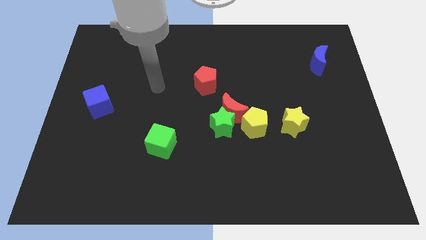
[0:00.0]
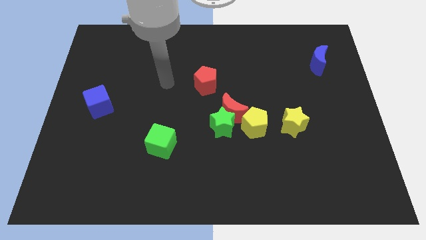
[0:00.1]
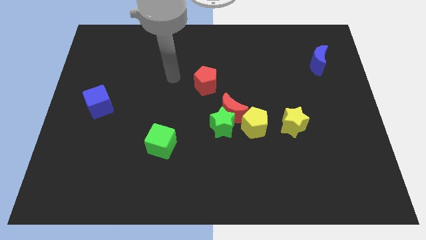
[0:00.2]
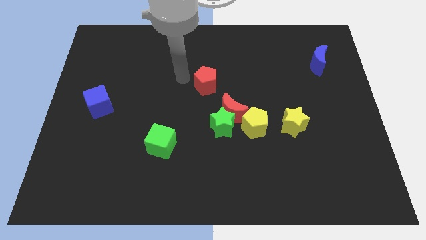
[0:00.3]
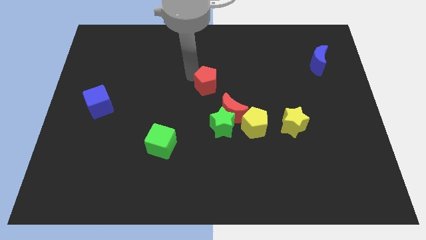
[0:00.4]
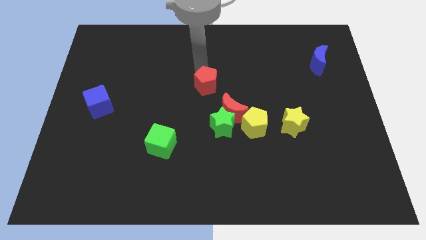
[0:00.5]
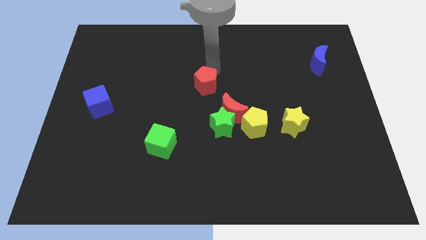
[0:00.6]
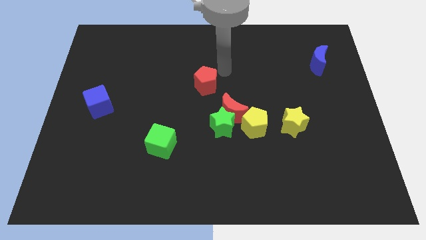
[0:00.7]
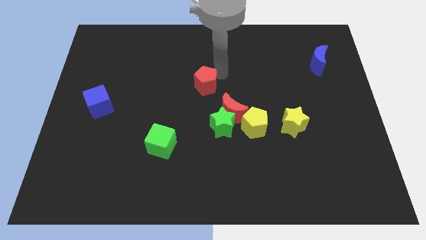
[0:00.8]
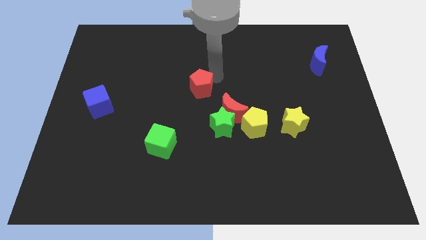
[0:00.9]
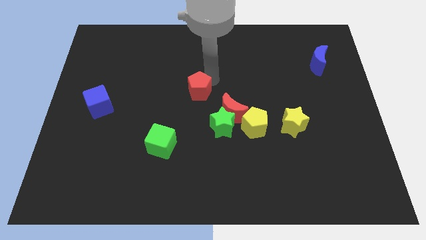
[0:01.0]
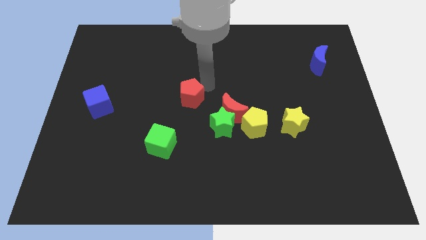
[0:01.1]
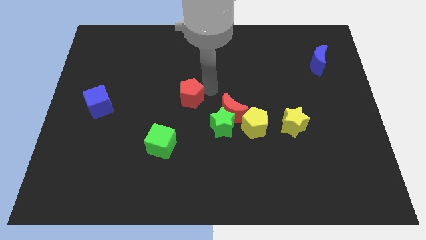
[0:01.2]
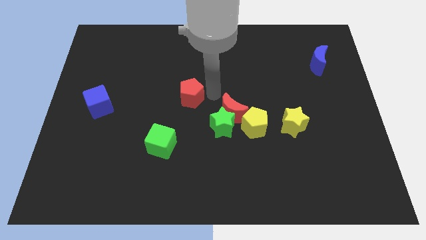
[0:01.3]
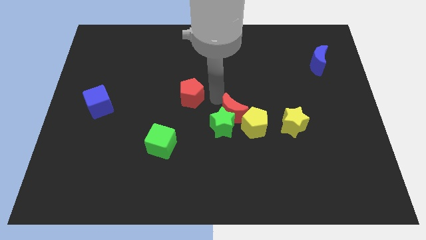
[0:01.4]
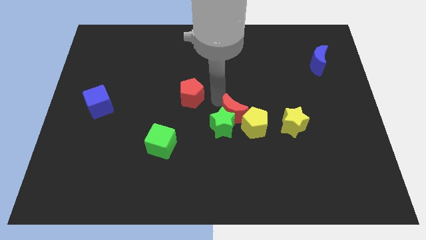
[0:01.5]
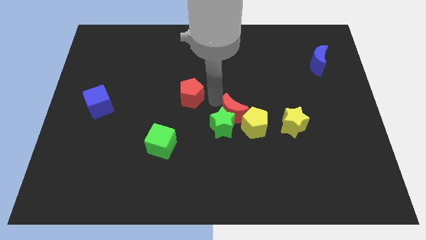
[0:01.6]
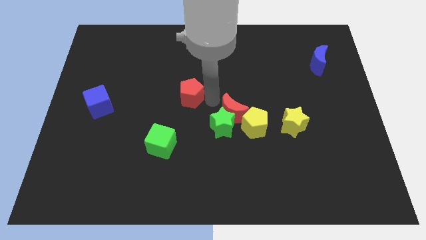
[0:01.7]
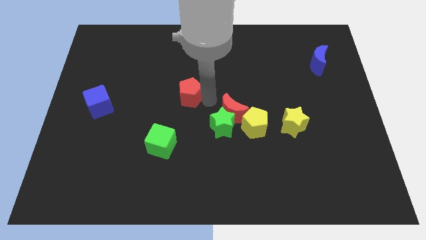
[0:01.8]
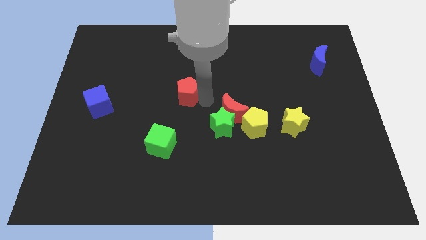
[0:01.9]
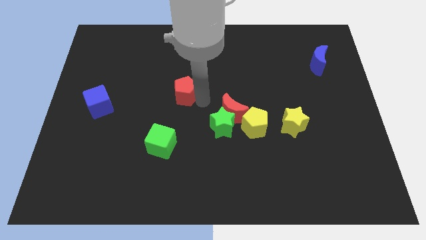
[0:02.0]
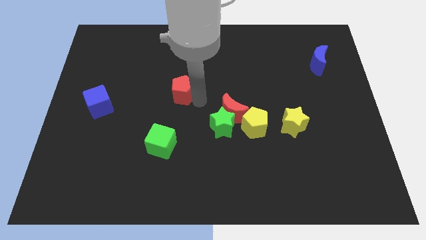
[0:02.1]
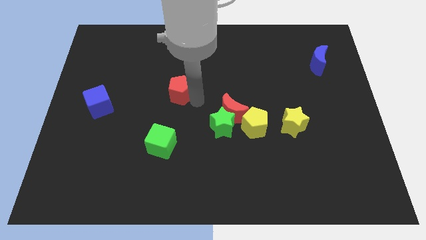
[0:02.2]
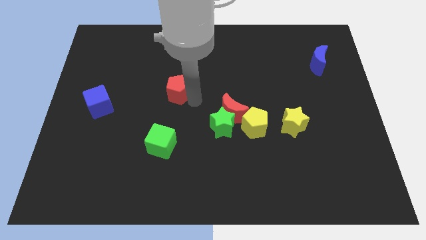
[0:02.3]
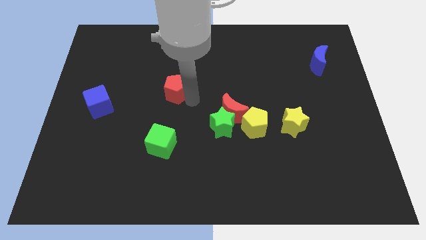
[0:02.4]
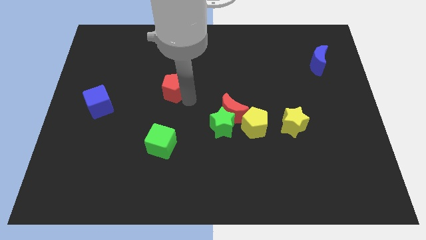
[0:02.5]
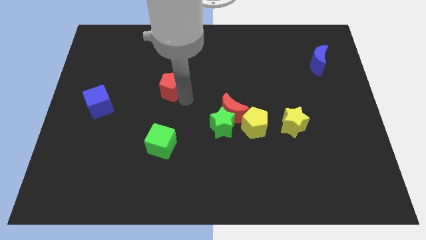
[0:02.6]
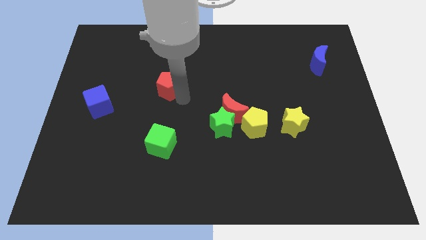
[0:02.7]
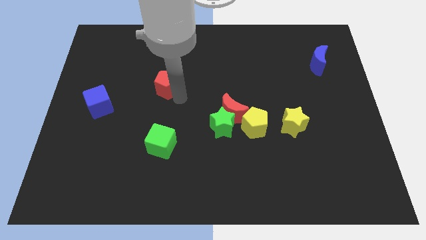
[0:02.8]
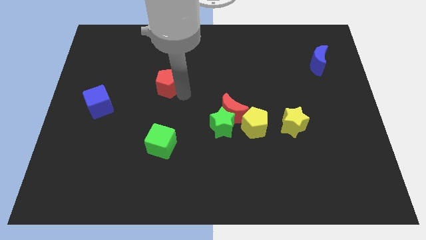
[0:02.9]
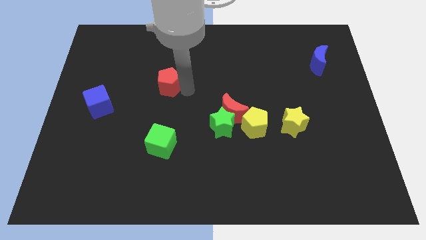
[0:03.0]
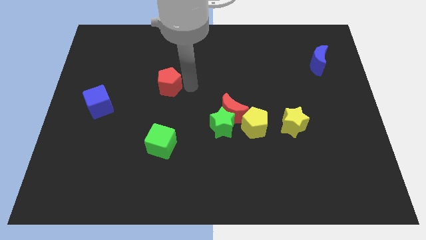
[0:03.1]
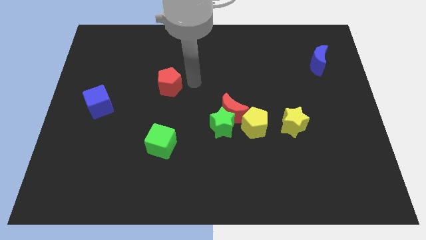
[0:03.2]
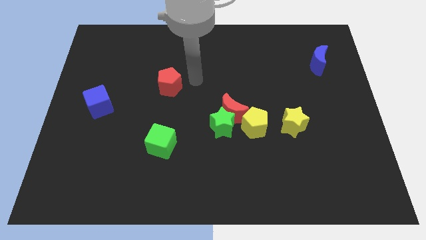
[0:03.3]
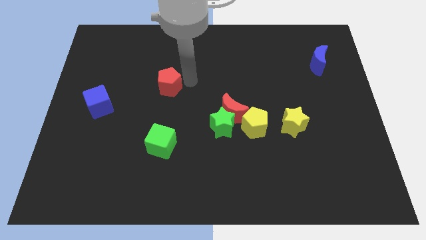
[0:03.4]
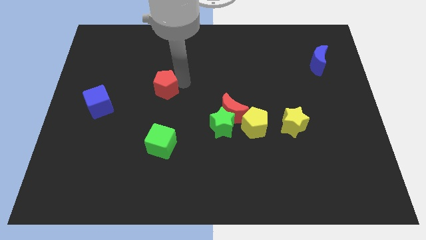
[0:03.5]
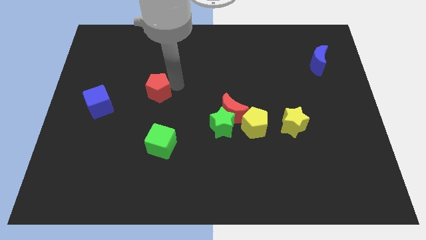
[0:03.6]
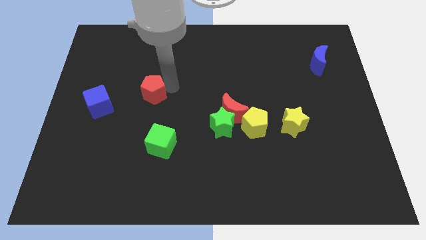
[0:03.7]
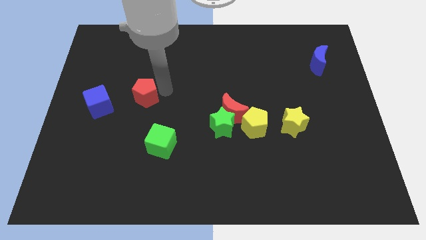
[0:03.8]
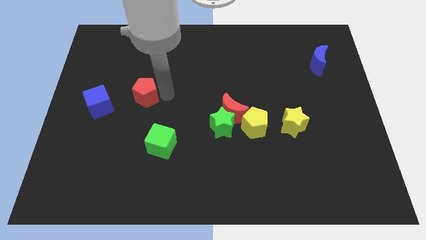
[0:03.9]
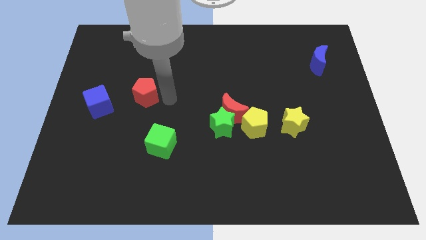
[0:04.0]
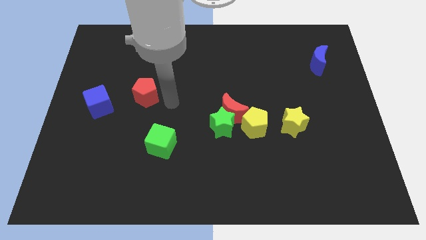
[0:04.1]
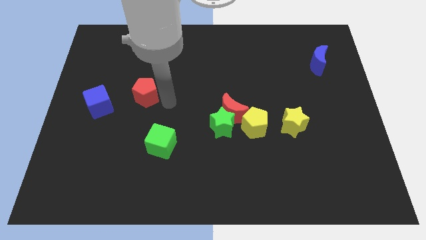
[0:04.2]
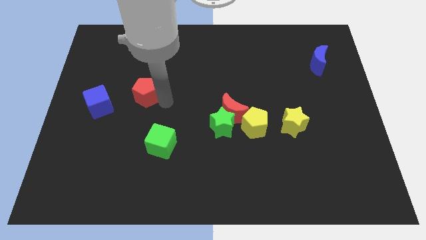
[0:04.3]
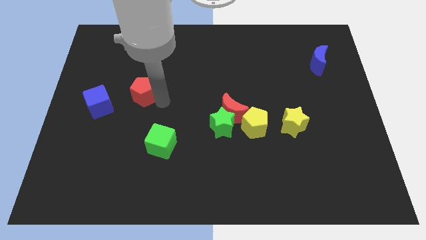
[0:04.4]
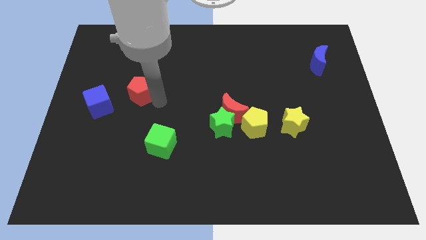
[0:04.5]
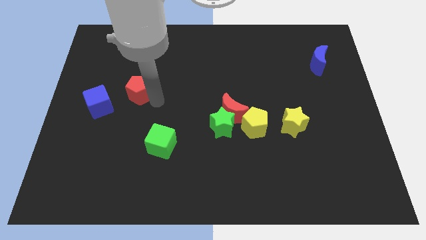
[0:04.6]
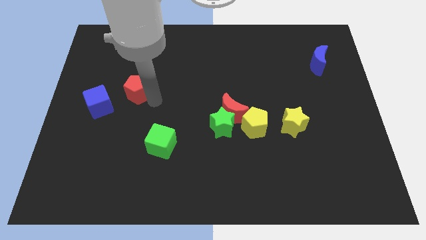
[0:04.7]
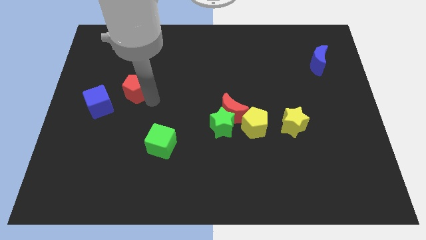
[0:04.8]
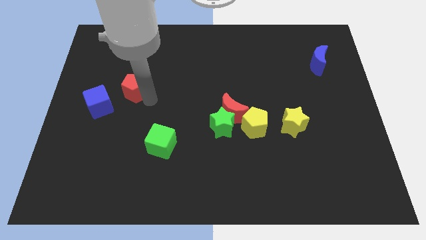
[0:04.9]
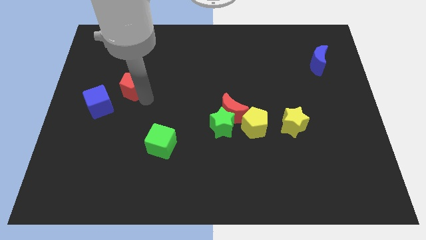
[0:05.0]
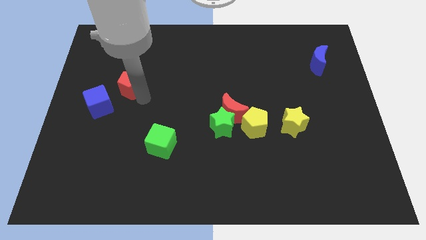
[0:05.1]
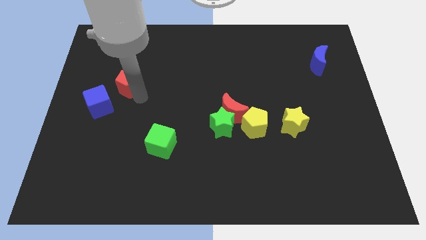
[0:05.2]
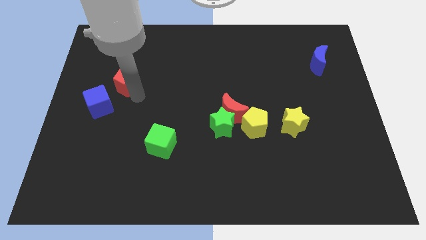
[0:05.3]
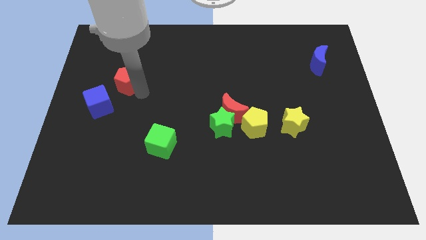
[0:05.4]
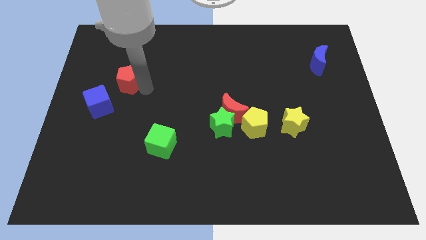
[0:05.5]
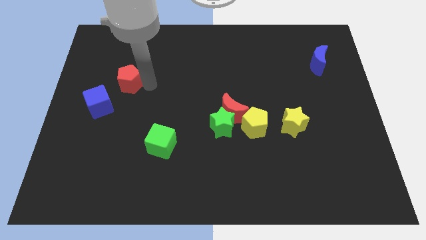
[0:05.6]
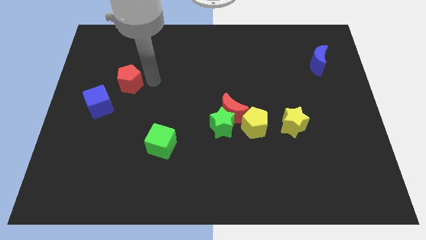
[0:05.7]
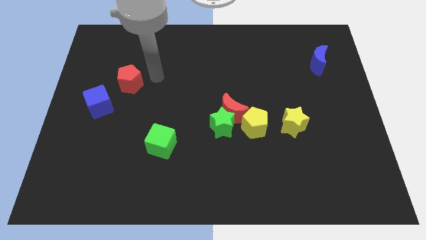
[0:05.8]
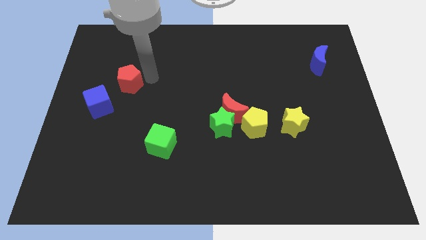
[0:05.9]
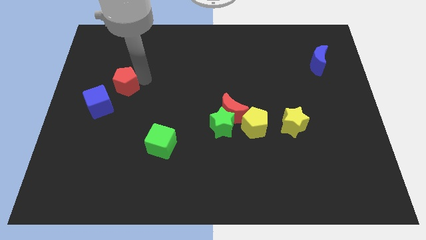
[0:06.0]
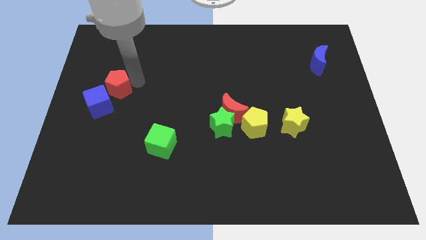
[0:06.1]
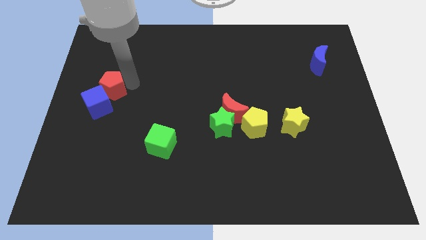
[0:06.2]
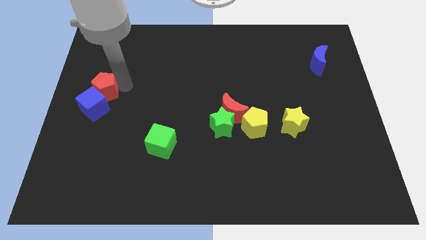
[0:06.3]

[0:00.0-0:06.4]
put the red pentagon to the center left
